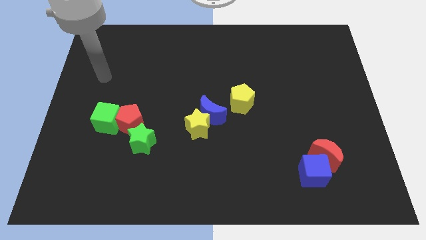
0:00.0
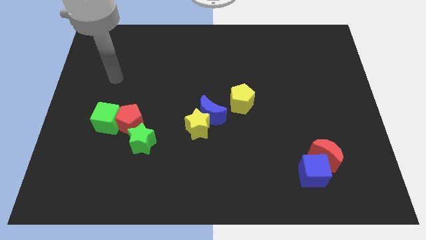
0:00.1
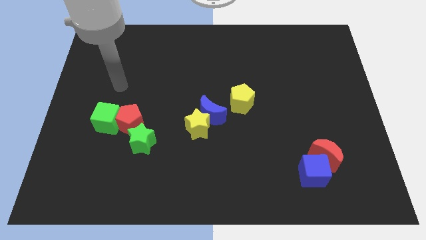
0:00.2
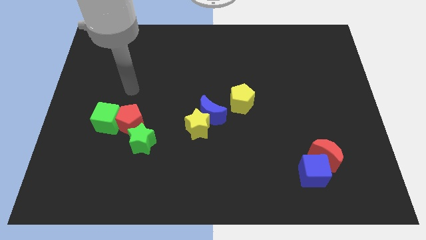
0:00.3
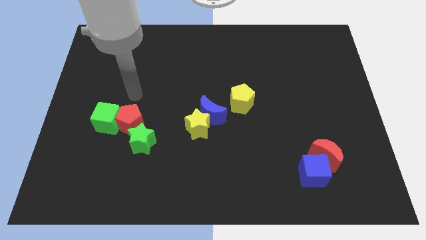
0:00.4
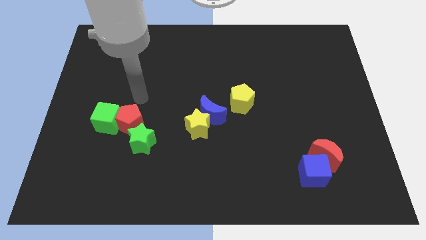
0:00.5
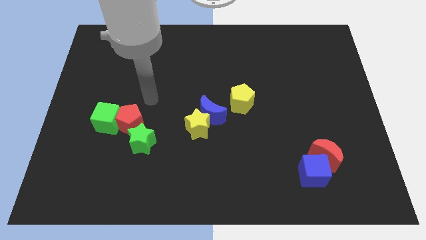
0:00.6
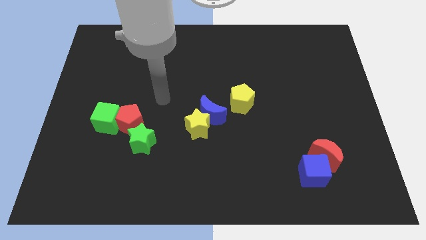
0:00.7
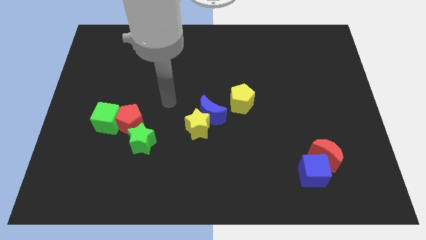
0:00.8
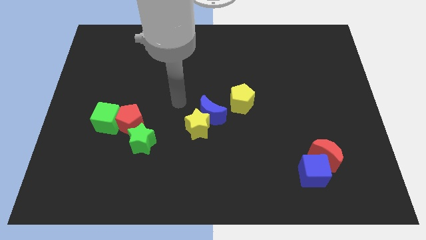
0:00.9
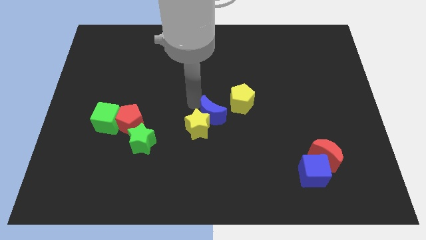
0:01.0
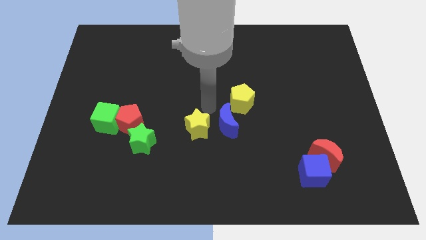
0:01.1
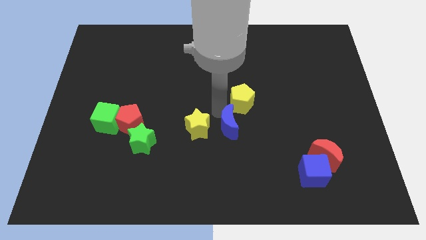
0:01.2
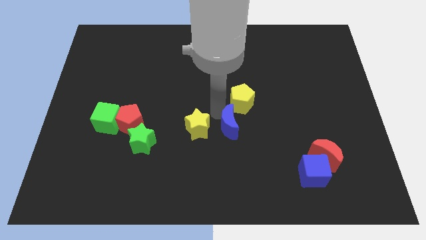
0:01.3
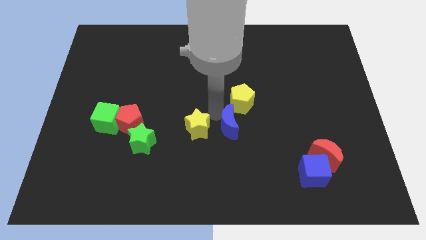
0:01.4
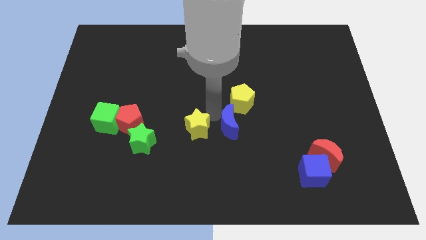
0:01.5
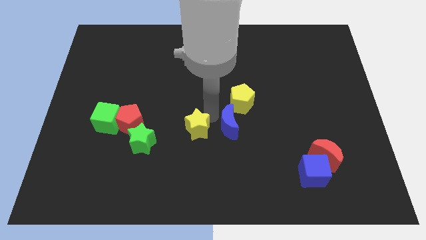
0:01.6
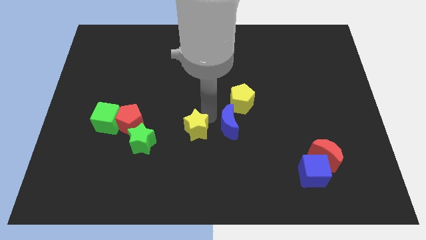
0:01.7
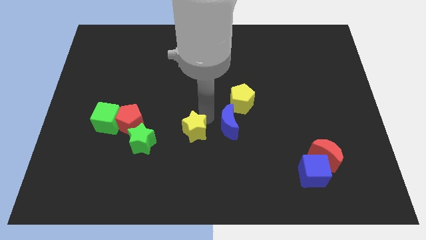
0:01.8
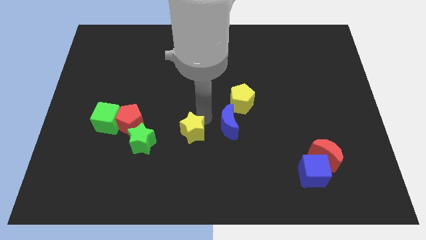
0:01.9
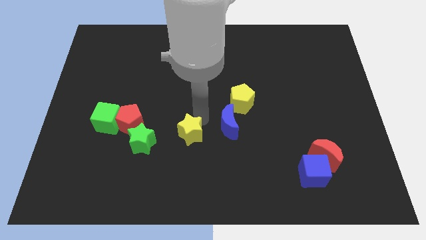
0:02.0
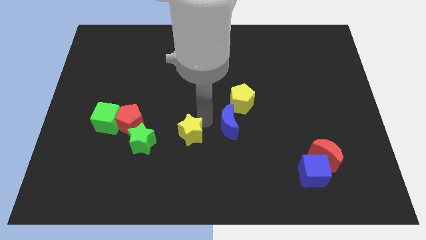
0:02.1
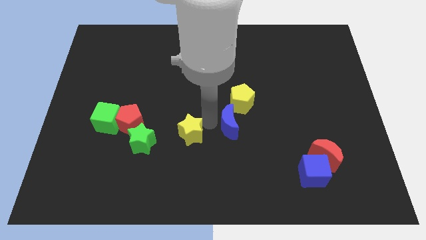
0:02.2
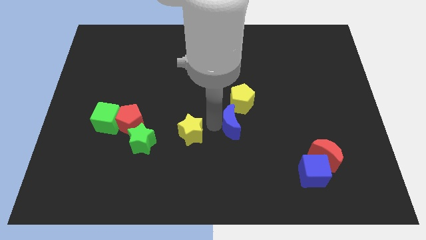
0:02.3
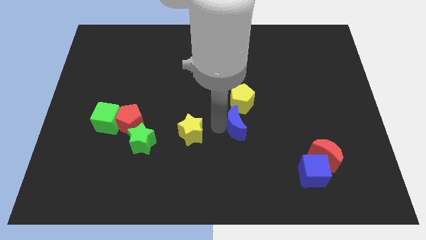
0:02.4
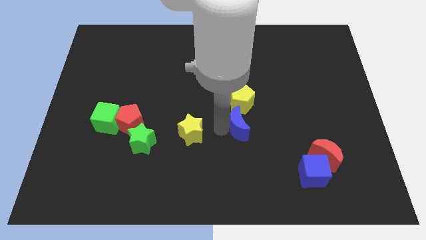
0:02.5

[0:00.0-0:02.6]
pull the yellow star apart from the blue moon

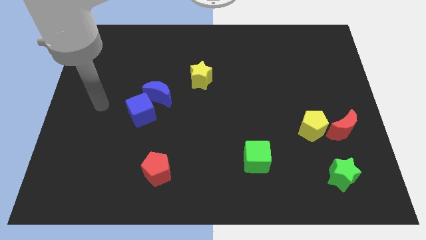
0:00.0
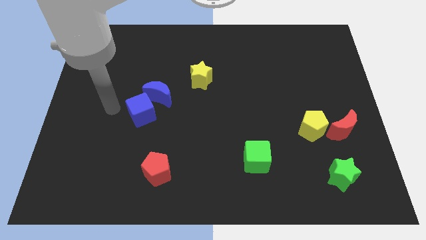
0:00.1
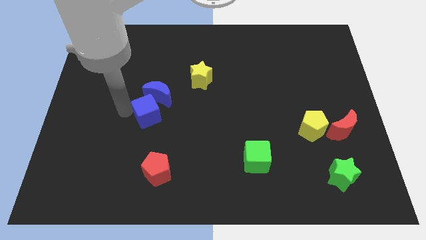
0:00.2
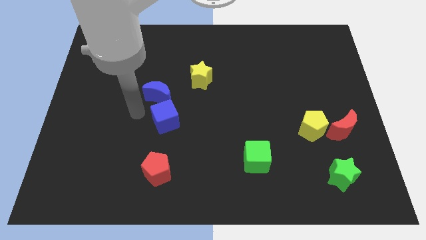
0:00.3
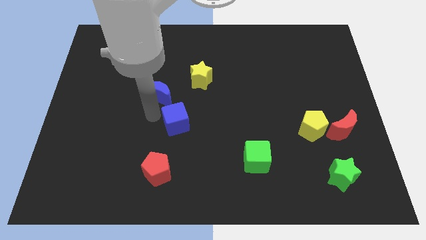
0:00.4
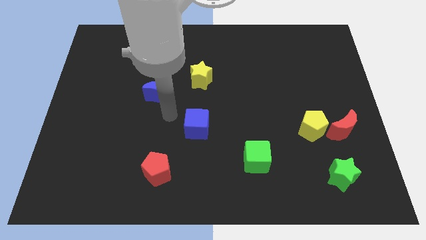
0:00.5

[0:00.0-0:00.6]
separate the blue moon from the blue cube

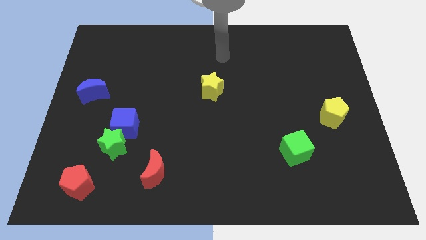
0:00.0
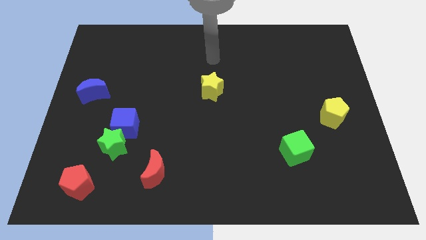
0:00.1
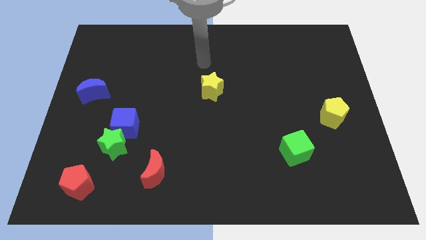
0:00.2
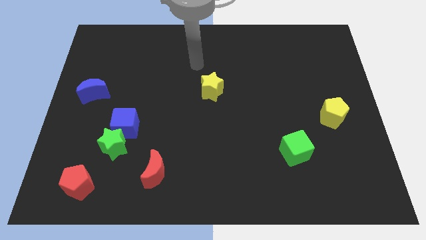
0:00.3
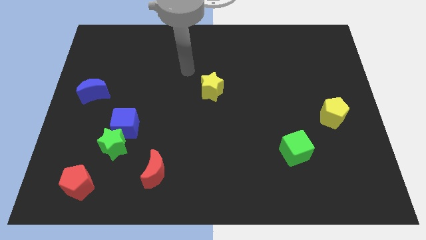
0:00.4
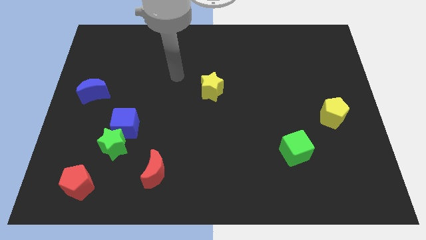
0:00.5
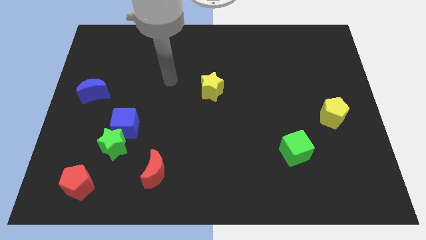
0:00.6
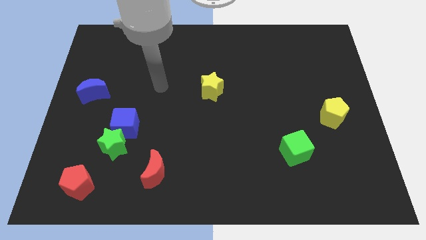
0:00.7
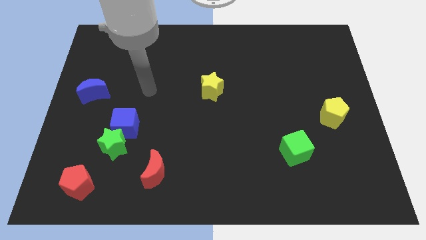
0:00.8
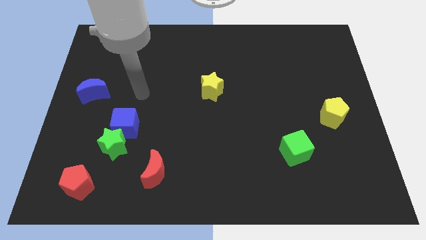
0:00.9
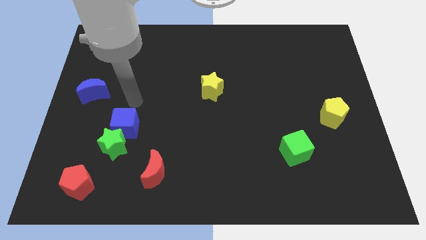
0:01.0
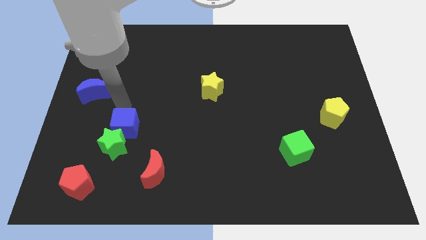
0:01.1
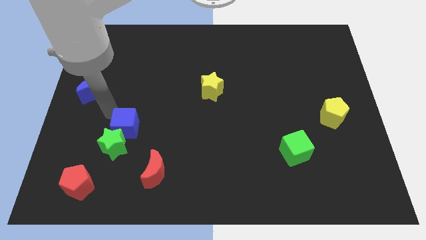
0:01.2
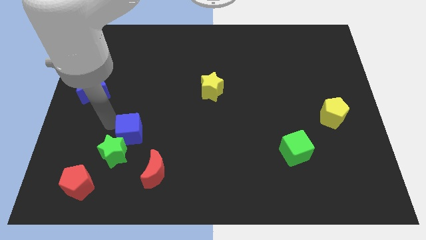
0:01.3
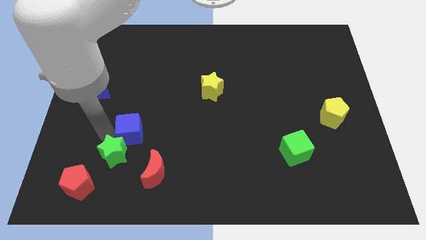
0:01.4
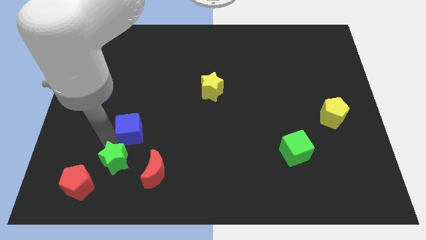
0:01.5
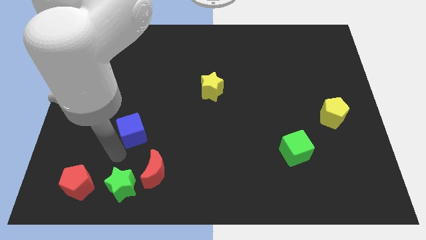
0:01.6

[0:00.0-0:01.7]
move the blue cube away from the green star

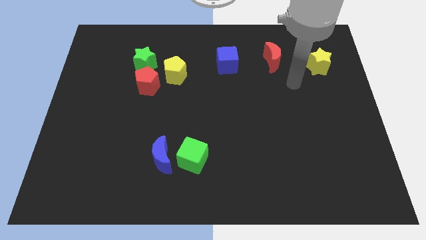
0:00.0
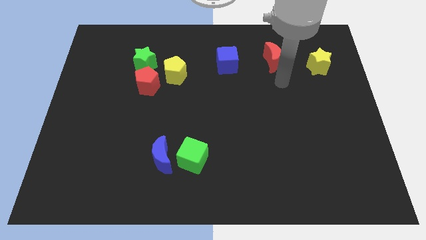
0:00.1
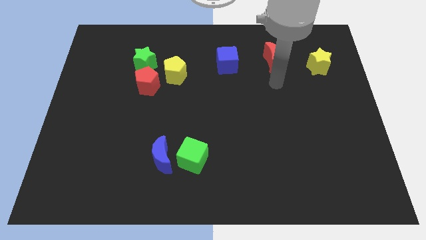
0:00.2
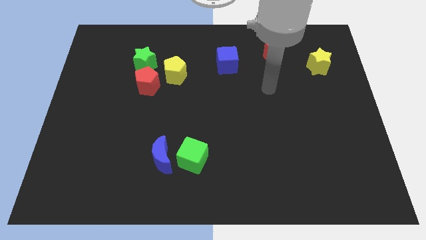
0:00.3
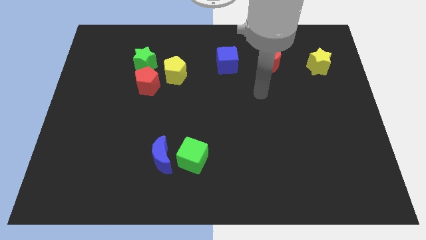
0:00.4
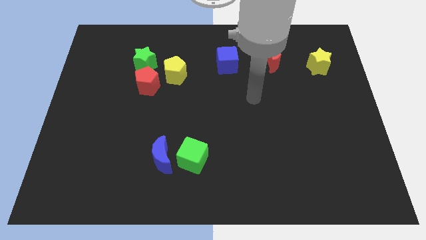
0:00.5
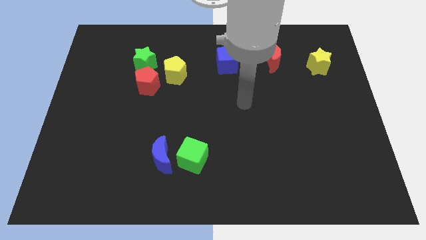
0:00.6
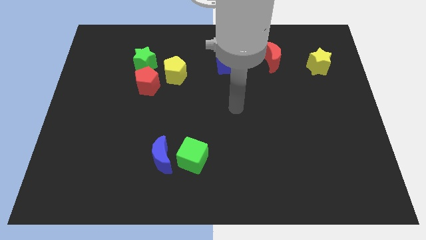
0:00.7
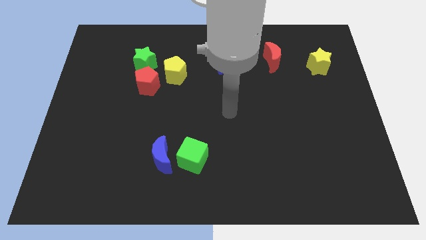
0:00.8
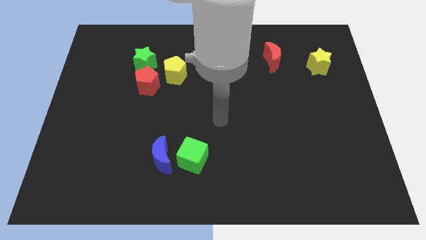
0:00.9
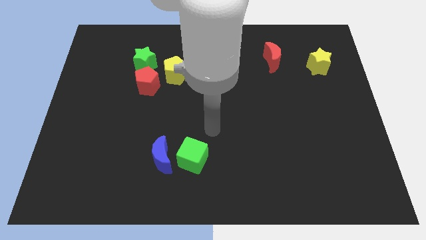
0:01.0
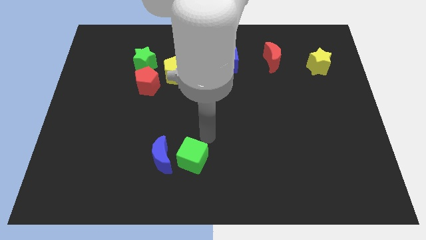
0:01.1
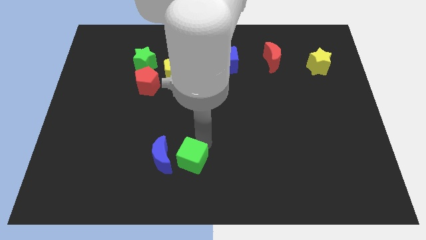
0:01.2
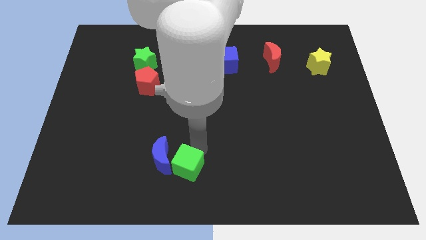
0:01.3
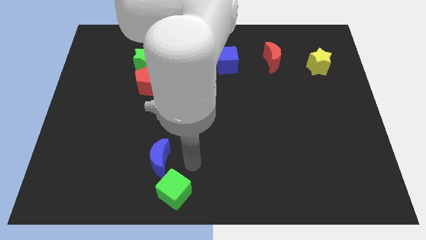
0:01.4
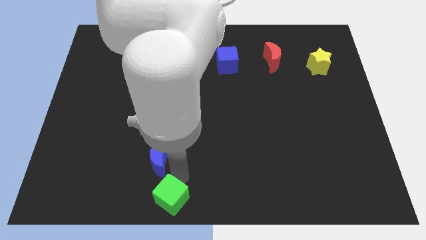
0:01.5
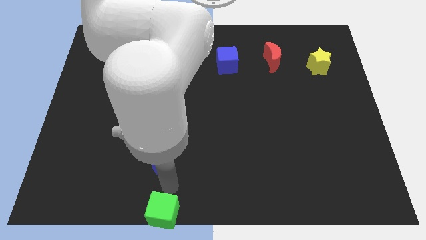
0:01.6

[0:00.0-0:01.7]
move the blue moon away from the green cube

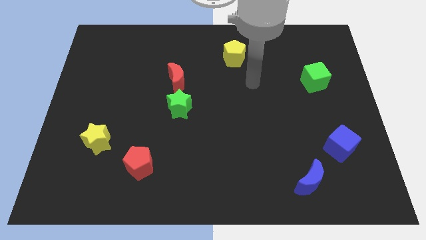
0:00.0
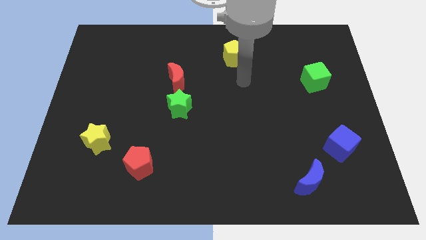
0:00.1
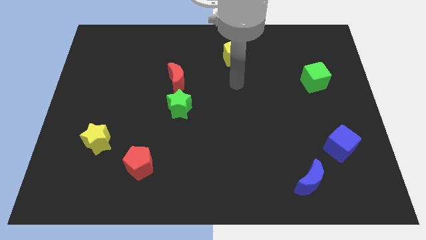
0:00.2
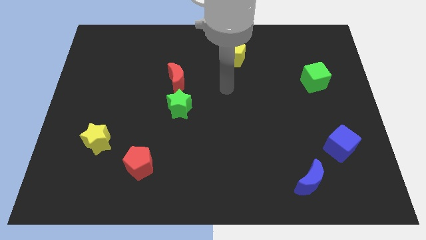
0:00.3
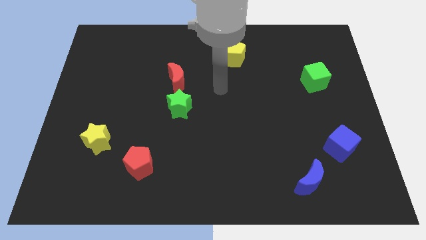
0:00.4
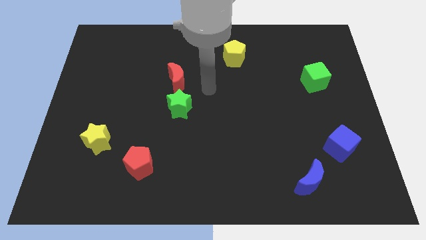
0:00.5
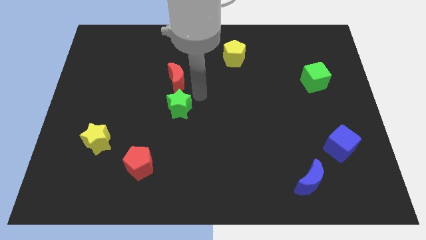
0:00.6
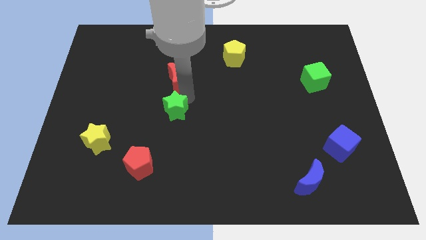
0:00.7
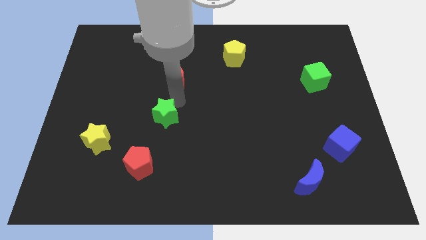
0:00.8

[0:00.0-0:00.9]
separate the red moon from the green star

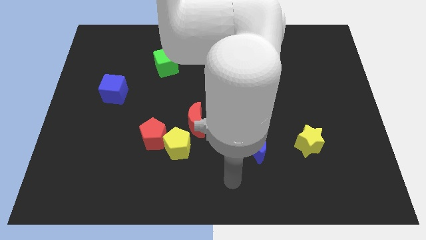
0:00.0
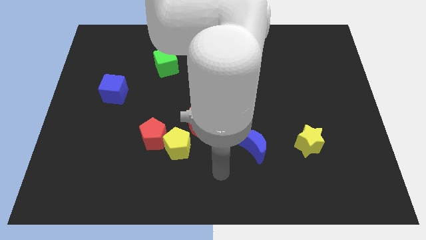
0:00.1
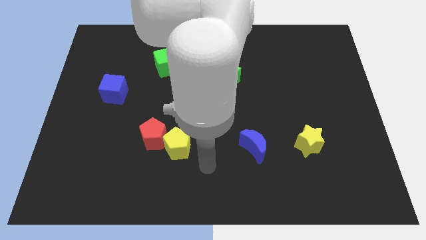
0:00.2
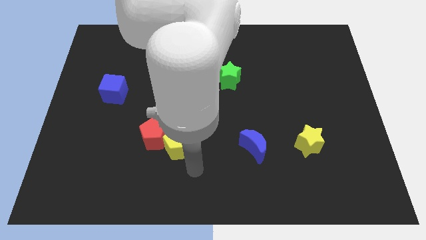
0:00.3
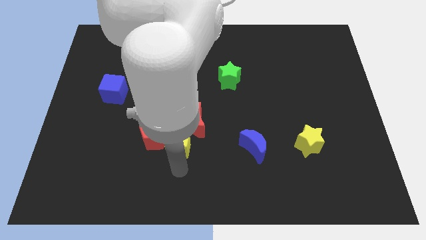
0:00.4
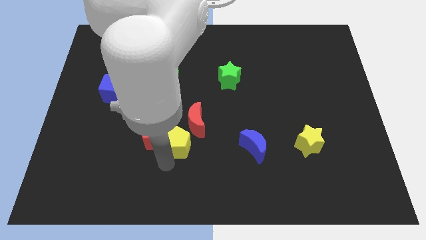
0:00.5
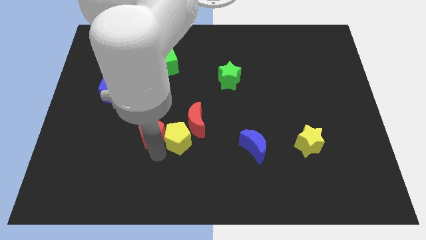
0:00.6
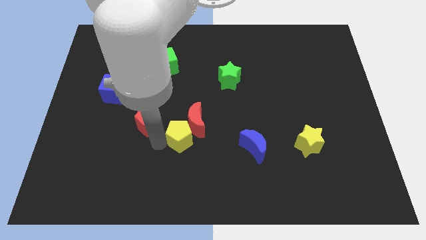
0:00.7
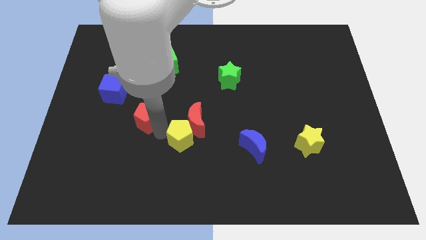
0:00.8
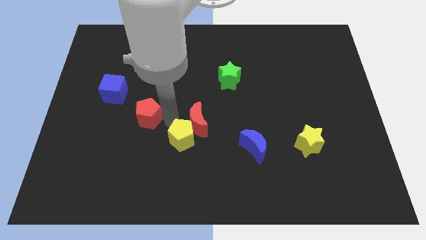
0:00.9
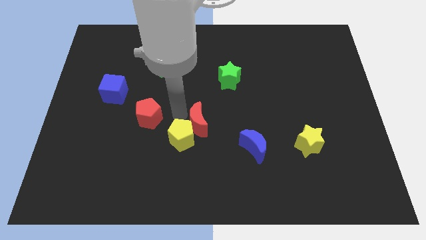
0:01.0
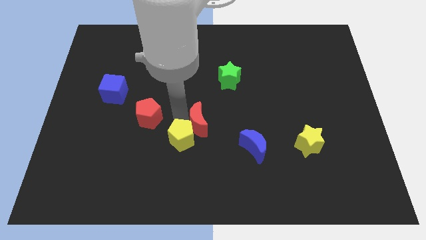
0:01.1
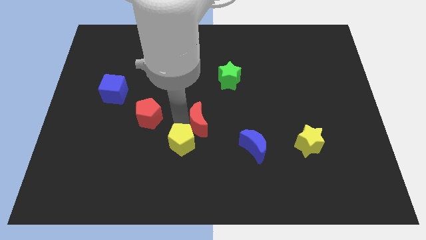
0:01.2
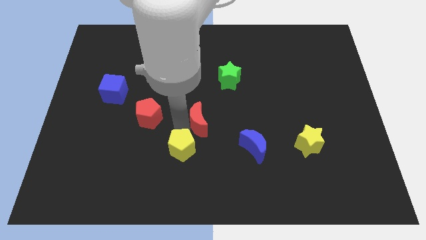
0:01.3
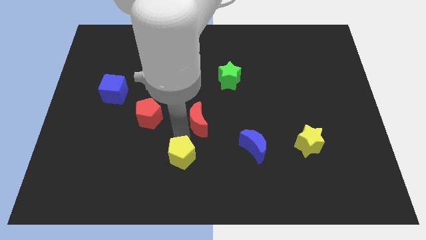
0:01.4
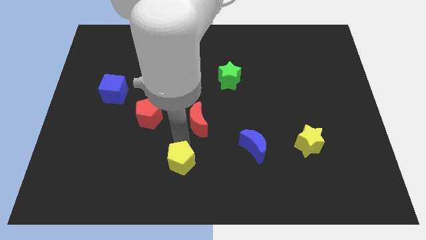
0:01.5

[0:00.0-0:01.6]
separate the yellow pentagon from the red pentagon and red moon

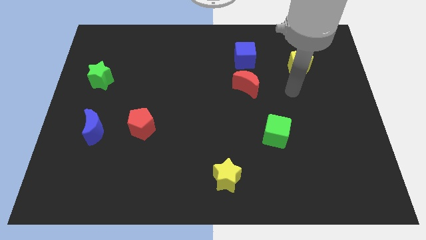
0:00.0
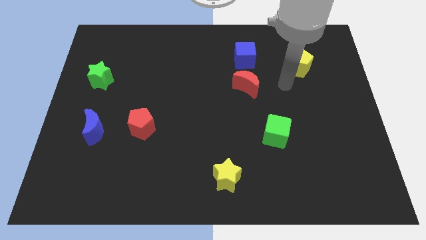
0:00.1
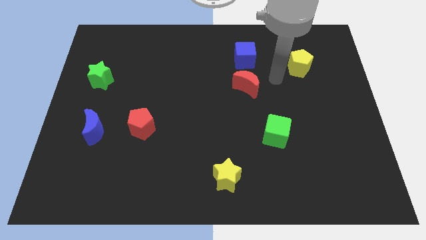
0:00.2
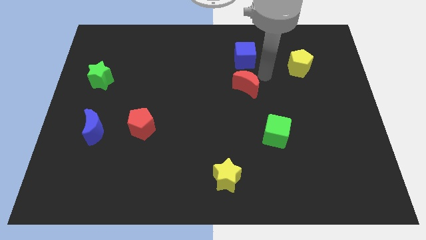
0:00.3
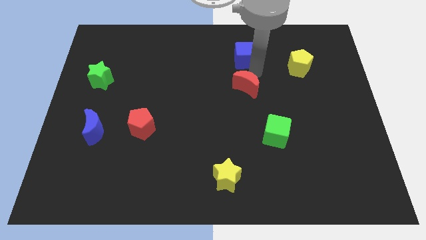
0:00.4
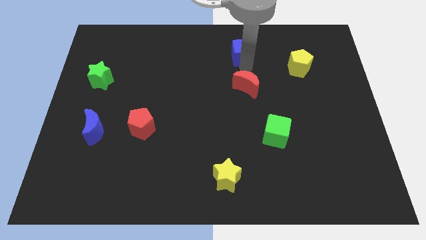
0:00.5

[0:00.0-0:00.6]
separate the red moon from the blue cube
